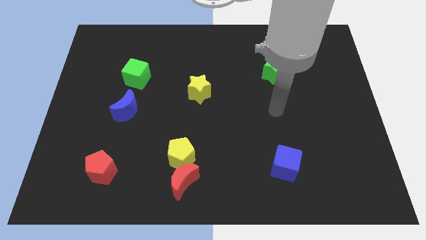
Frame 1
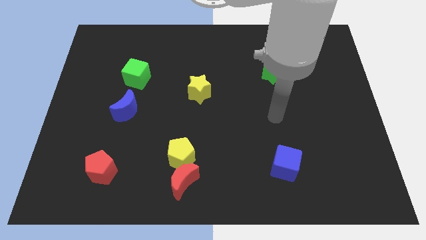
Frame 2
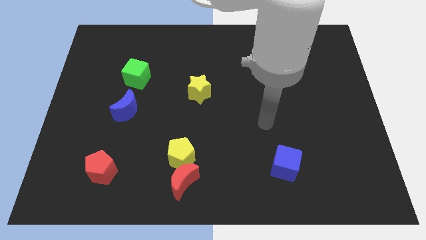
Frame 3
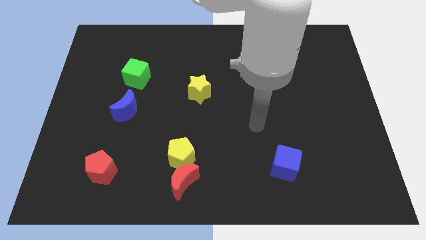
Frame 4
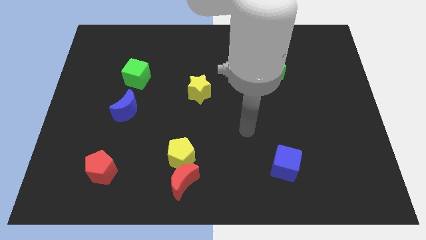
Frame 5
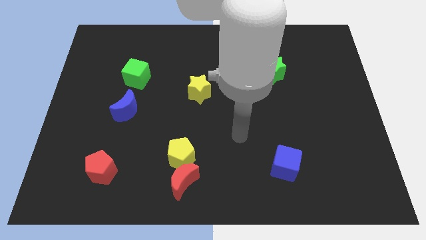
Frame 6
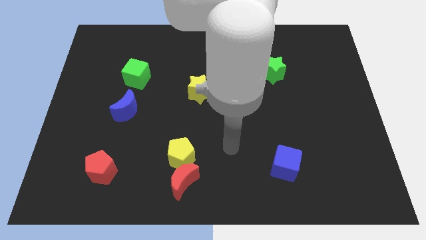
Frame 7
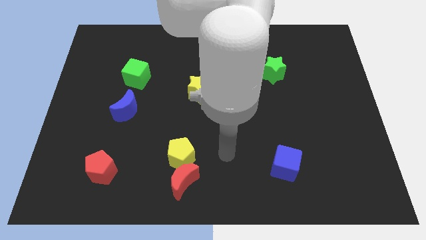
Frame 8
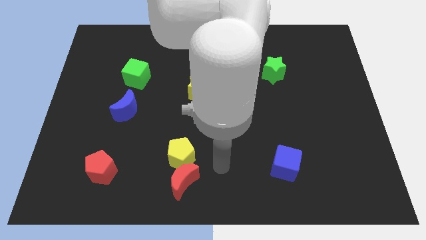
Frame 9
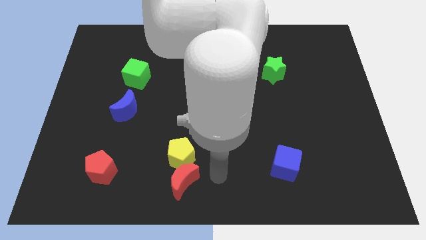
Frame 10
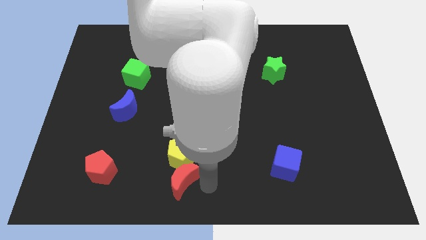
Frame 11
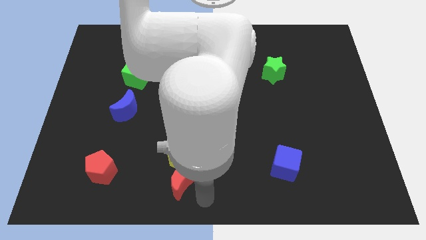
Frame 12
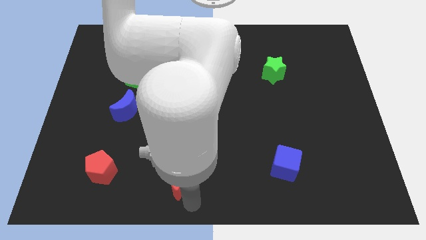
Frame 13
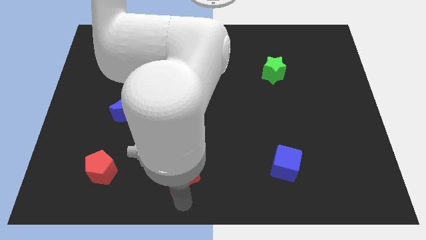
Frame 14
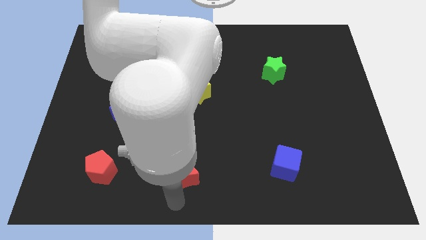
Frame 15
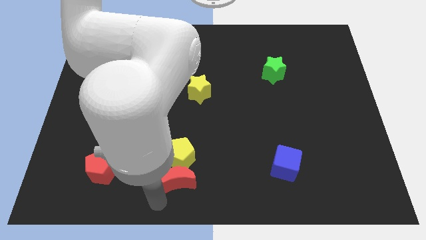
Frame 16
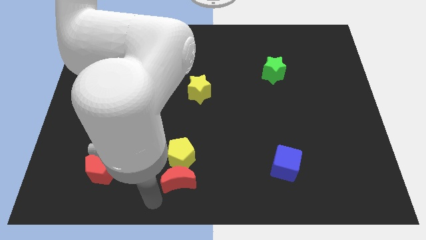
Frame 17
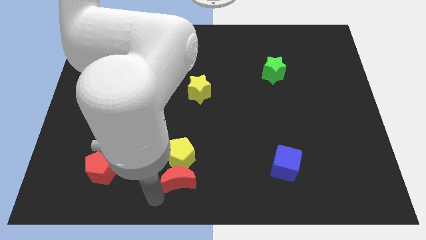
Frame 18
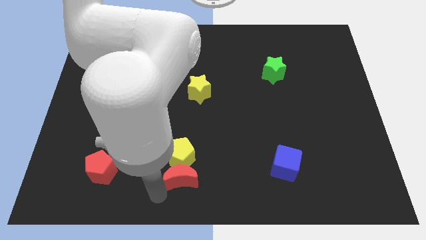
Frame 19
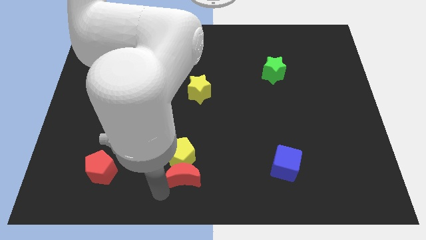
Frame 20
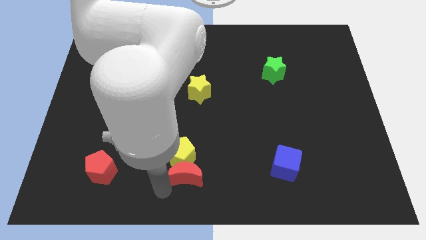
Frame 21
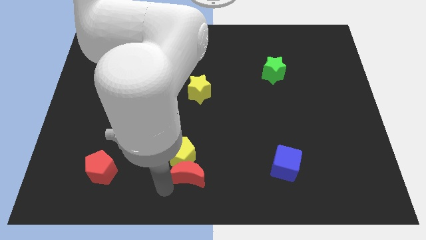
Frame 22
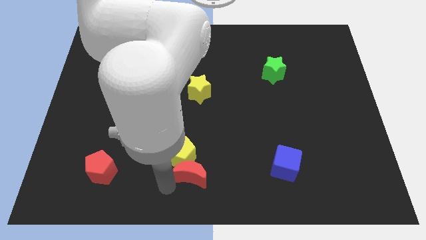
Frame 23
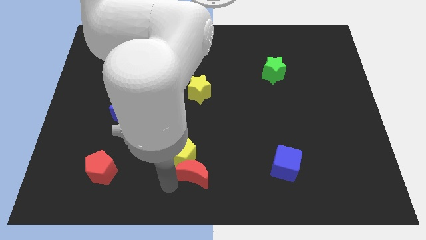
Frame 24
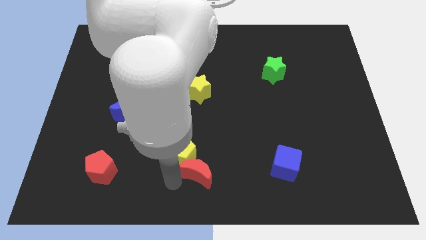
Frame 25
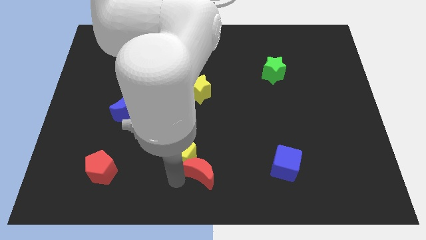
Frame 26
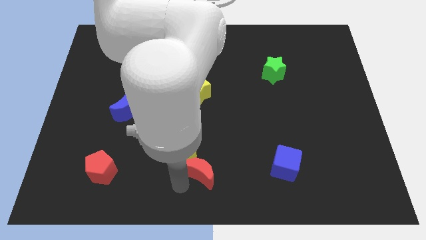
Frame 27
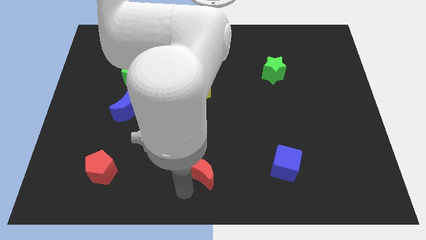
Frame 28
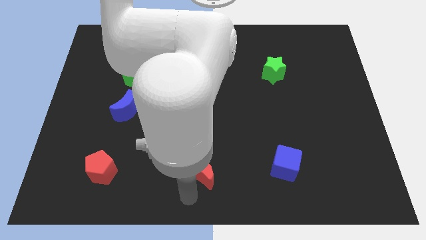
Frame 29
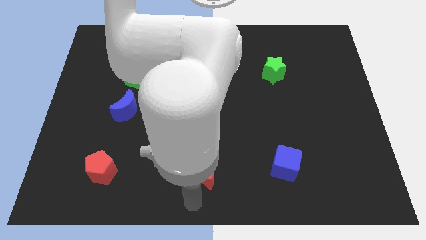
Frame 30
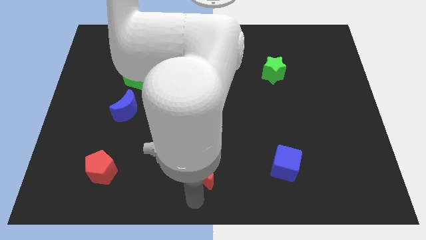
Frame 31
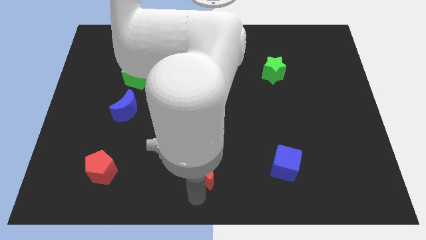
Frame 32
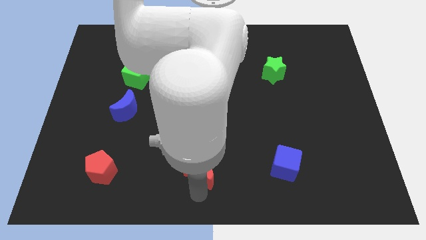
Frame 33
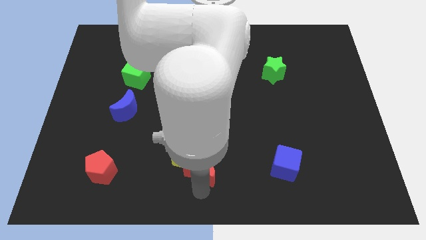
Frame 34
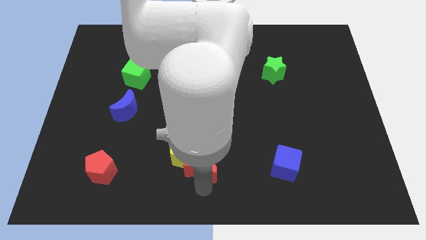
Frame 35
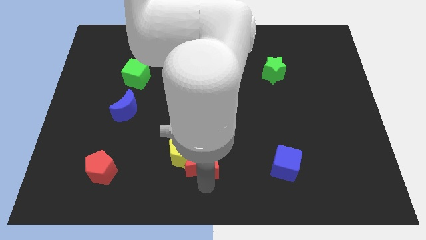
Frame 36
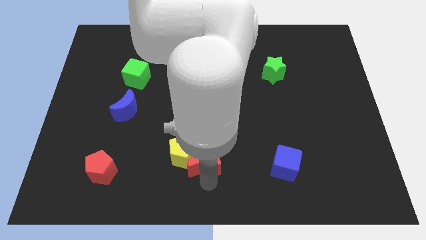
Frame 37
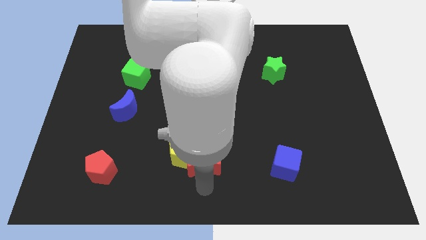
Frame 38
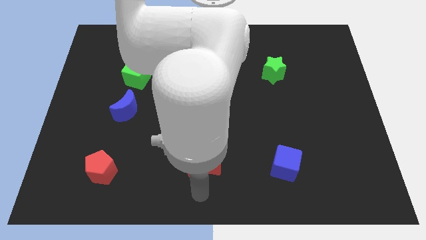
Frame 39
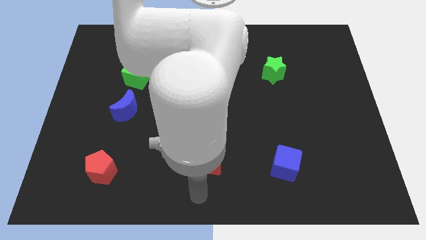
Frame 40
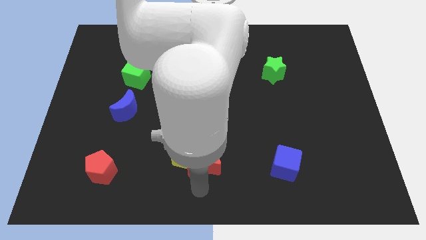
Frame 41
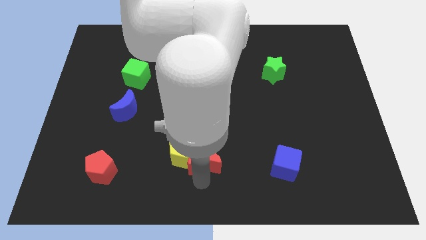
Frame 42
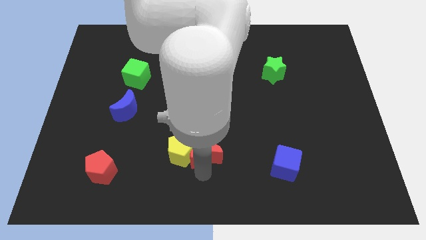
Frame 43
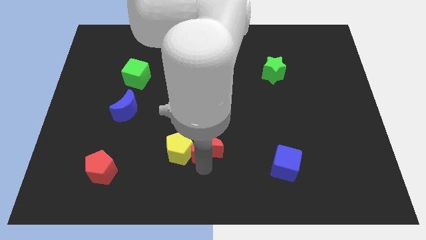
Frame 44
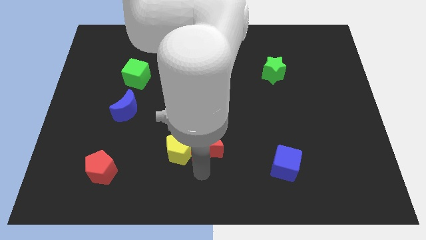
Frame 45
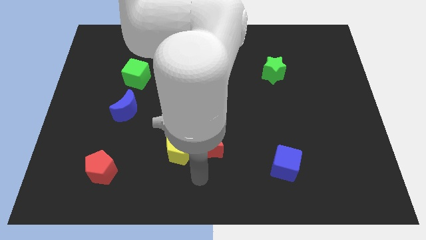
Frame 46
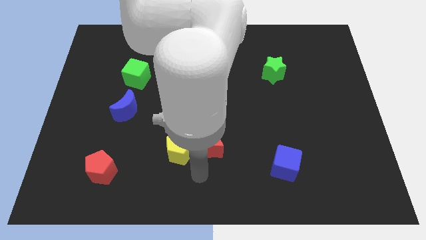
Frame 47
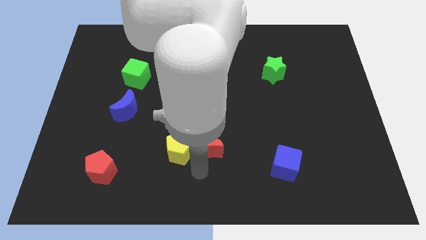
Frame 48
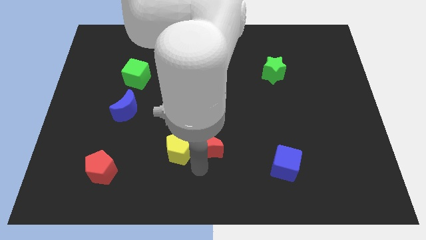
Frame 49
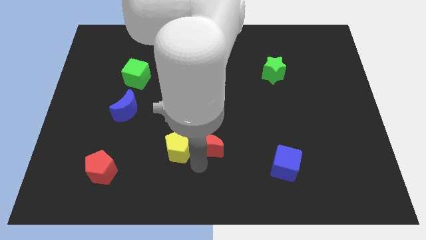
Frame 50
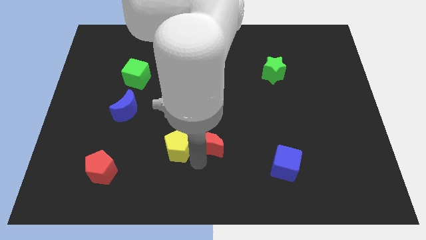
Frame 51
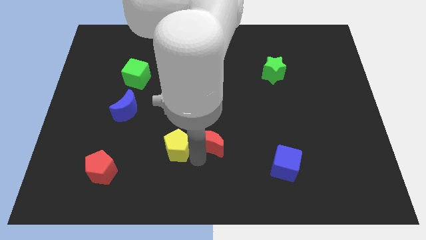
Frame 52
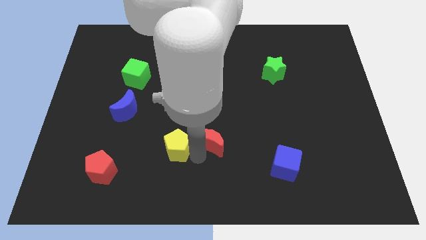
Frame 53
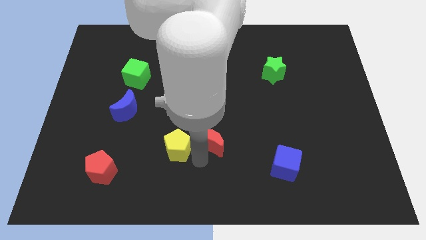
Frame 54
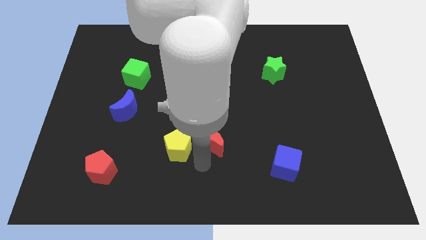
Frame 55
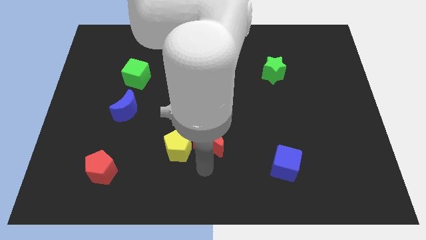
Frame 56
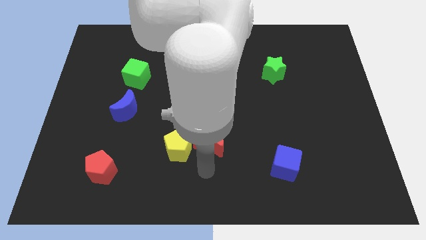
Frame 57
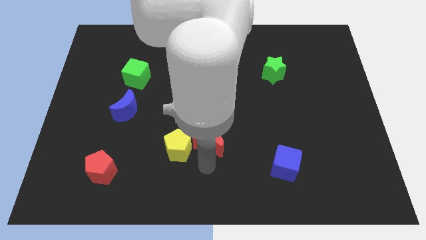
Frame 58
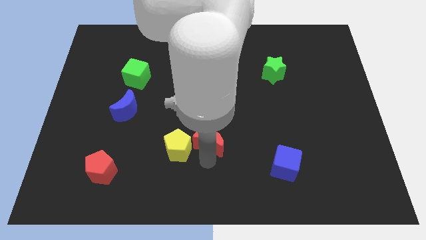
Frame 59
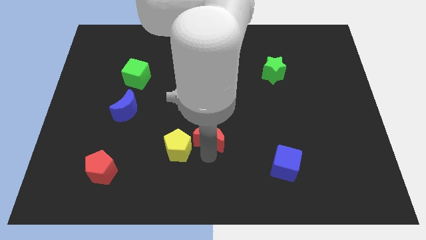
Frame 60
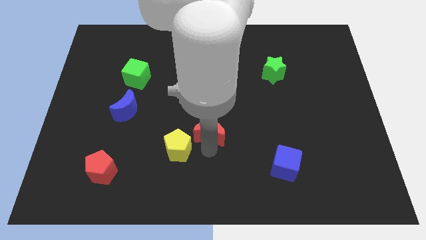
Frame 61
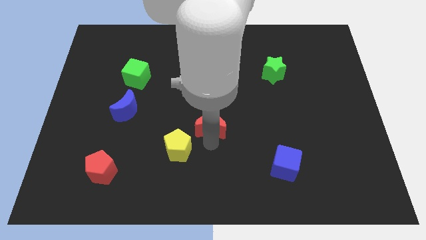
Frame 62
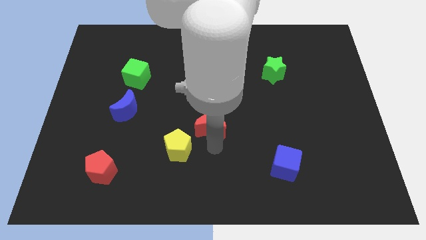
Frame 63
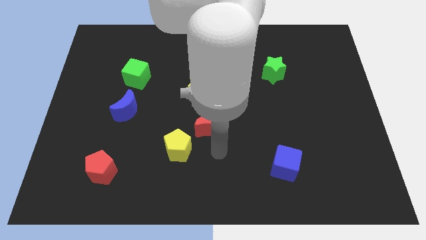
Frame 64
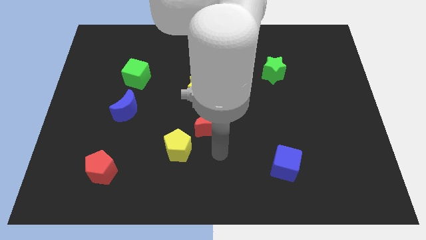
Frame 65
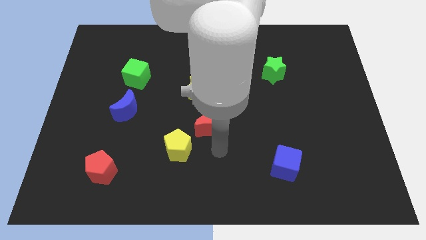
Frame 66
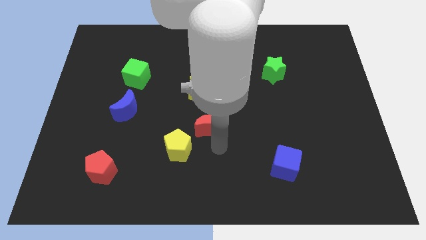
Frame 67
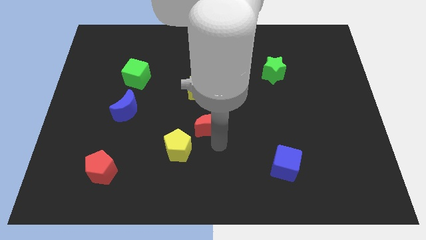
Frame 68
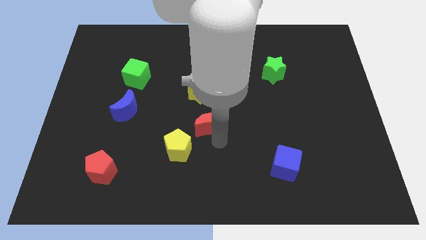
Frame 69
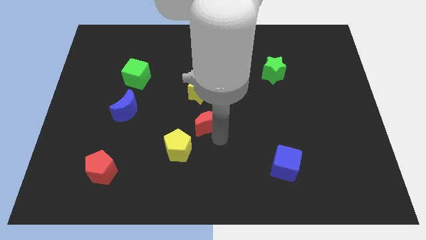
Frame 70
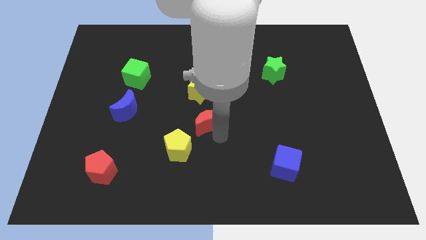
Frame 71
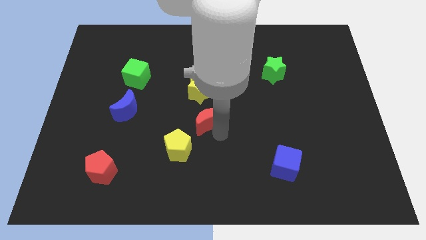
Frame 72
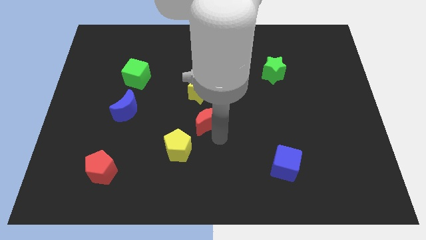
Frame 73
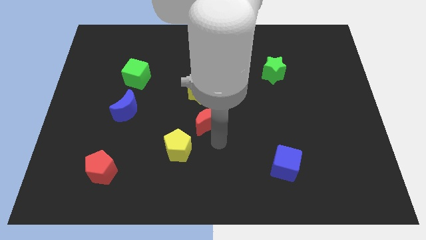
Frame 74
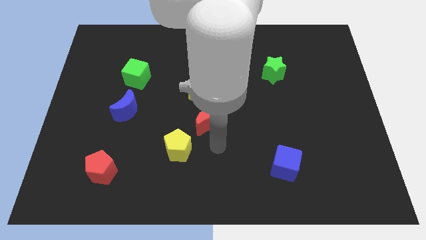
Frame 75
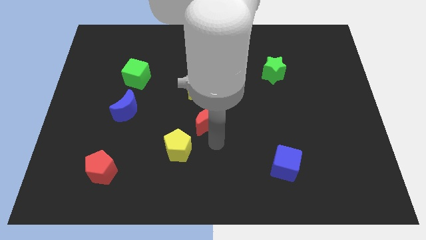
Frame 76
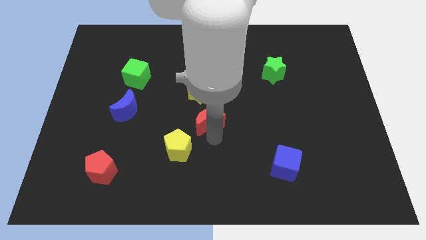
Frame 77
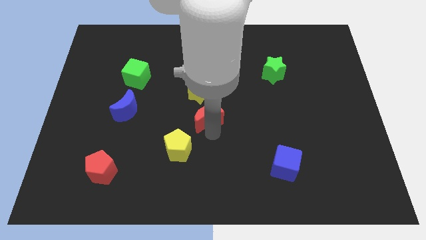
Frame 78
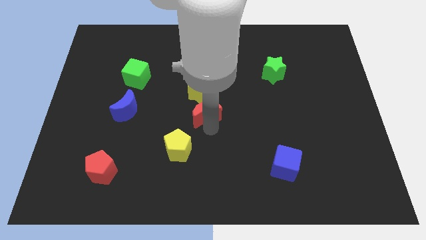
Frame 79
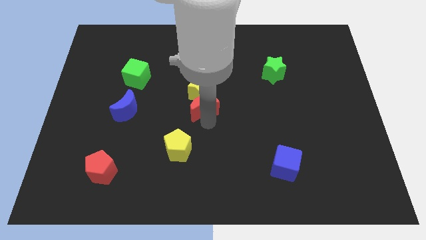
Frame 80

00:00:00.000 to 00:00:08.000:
put the red moon close to the yellow star
